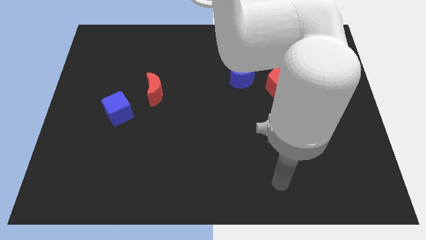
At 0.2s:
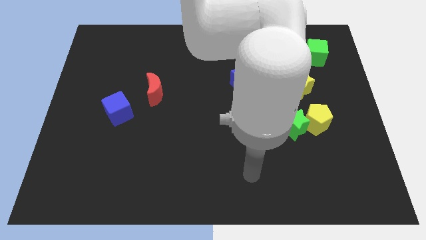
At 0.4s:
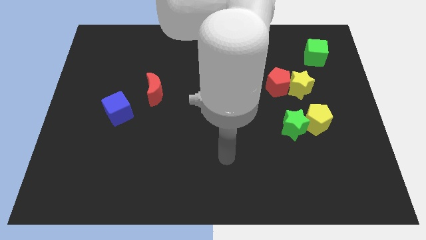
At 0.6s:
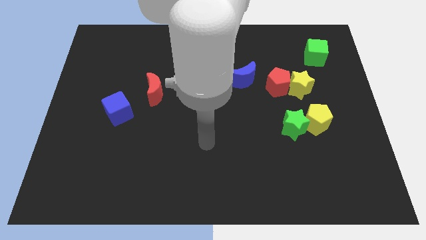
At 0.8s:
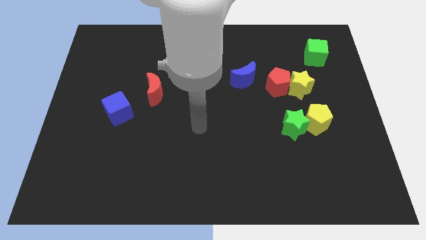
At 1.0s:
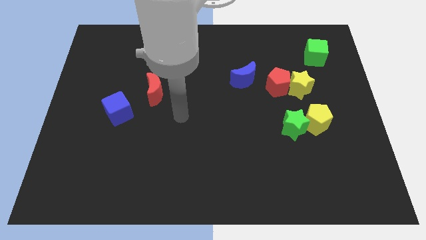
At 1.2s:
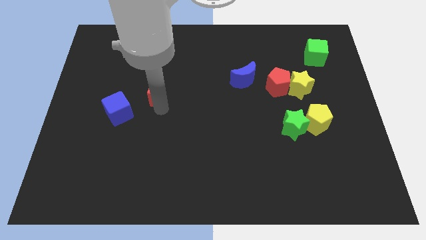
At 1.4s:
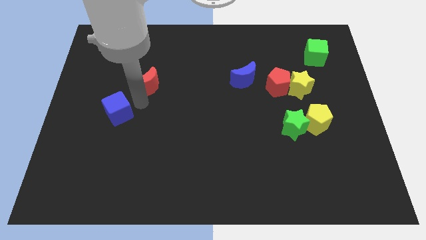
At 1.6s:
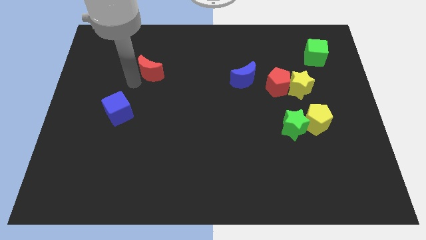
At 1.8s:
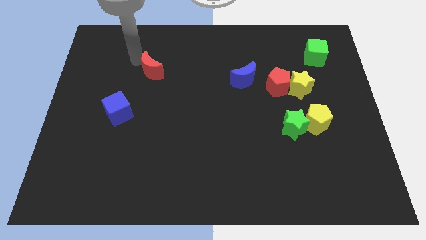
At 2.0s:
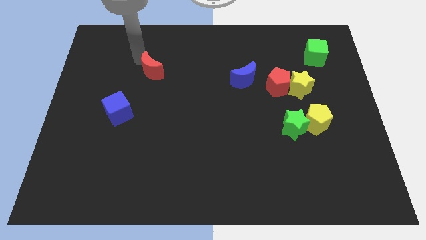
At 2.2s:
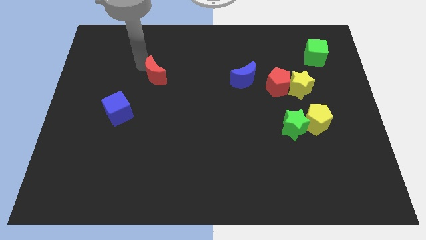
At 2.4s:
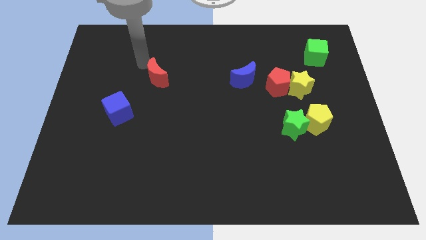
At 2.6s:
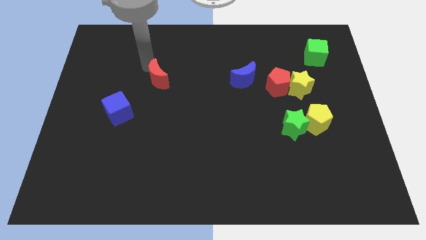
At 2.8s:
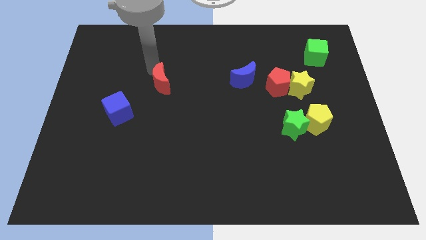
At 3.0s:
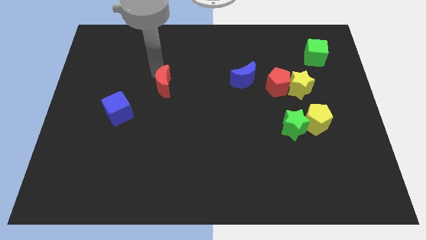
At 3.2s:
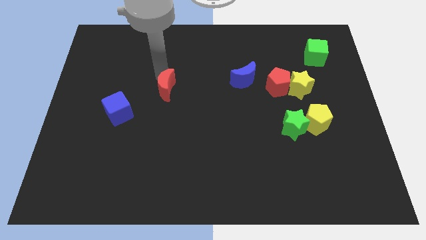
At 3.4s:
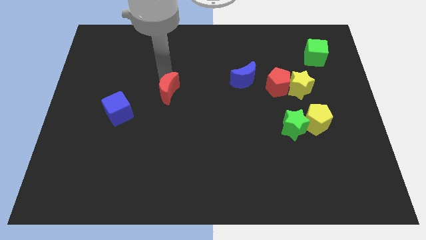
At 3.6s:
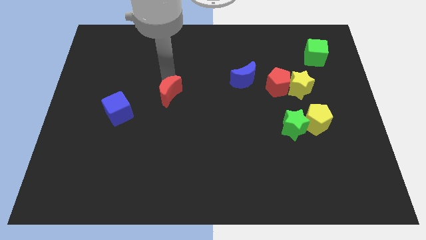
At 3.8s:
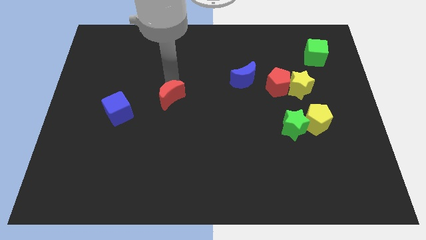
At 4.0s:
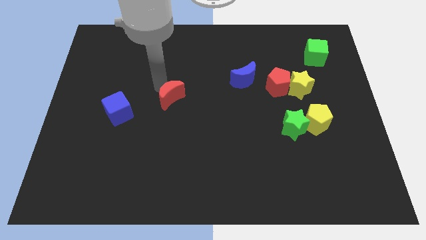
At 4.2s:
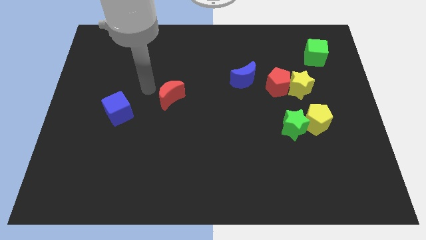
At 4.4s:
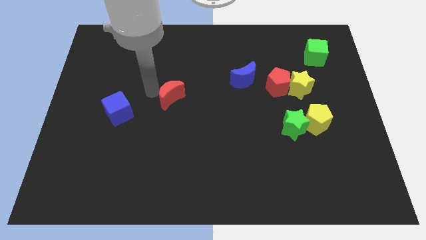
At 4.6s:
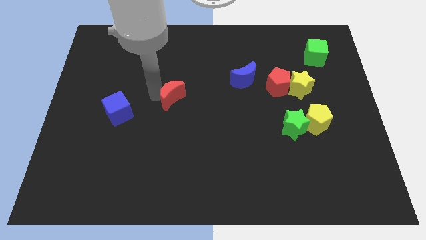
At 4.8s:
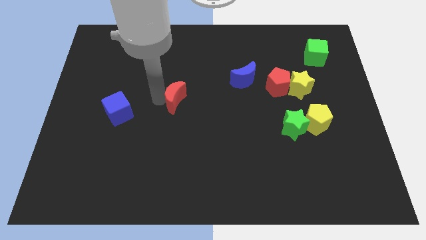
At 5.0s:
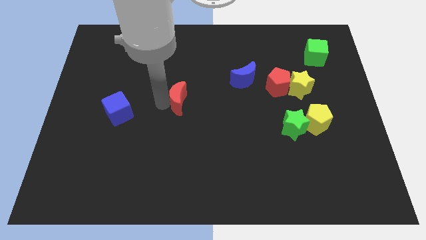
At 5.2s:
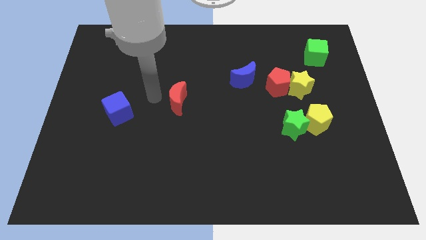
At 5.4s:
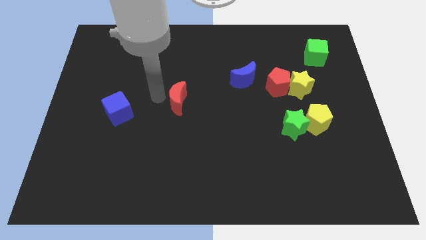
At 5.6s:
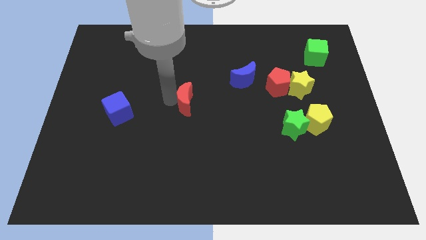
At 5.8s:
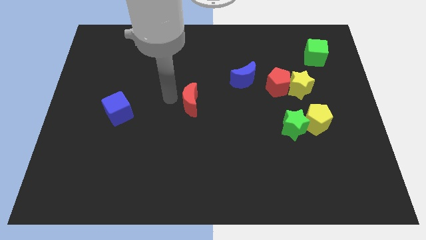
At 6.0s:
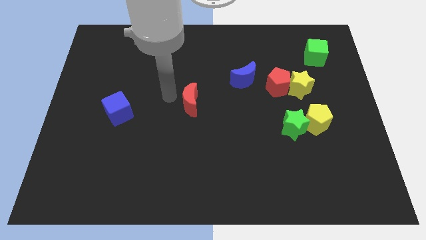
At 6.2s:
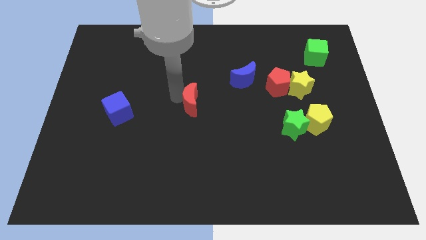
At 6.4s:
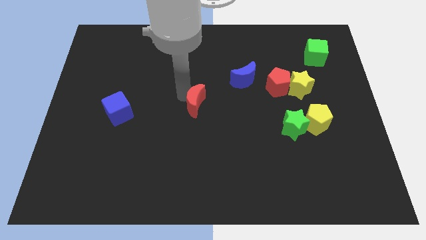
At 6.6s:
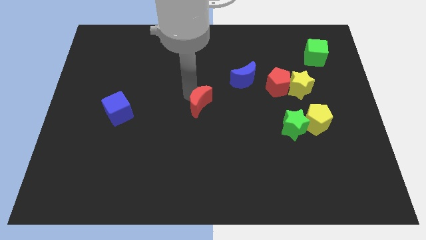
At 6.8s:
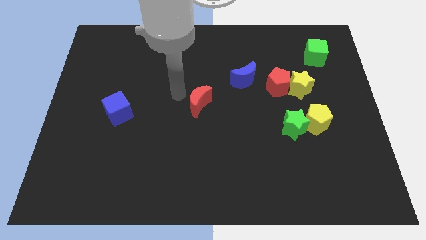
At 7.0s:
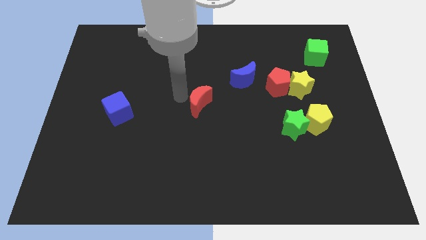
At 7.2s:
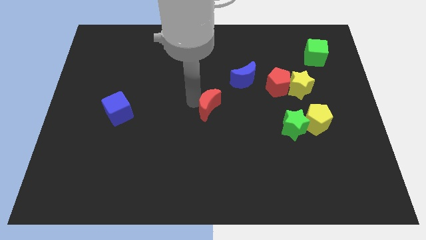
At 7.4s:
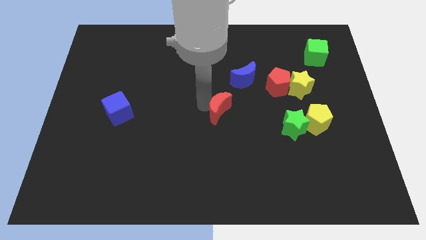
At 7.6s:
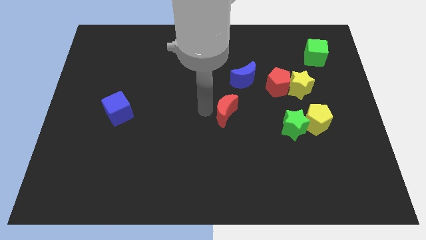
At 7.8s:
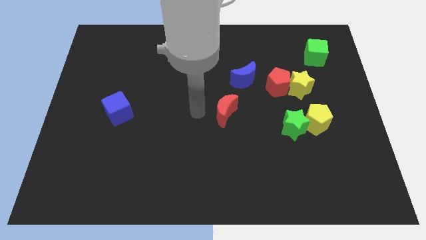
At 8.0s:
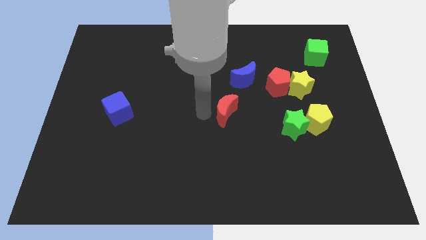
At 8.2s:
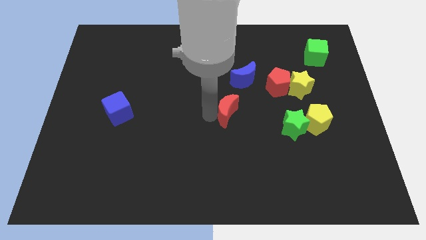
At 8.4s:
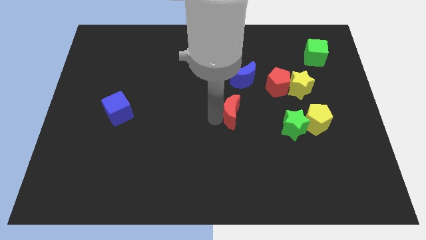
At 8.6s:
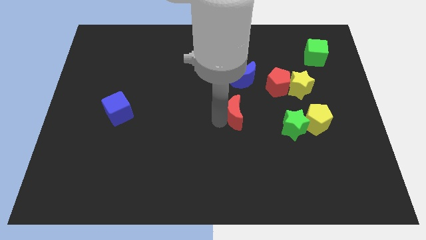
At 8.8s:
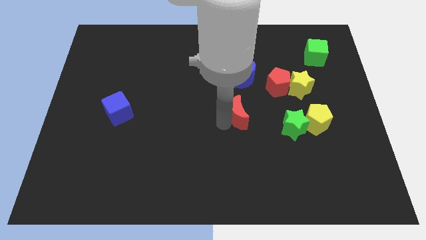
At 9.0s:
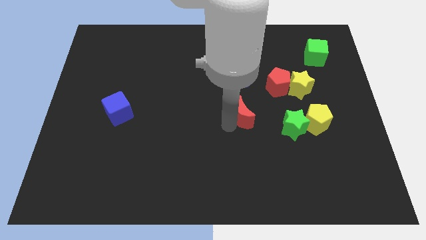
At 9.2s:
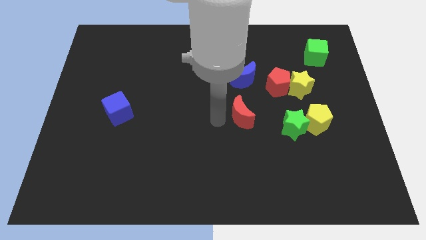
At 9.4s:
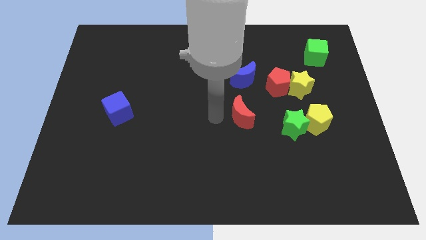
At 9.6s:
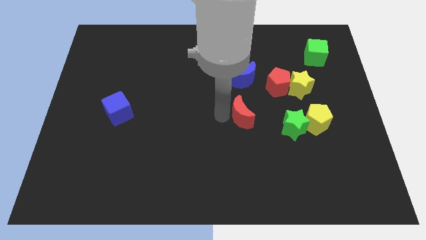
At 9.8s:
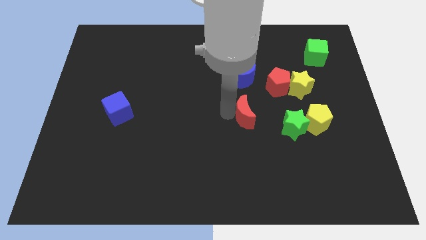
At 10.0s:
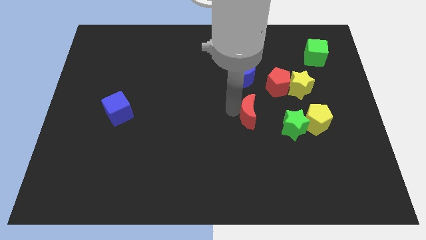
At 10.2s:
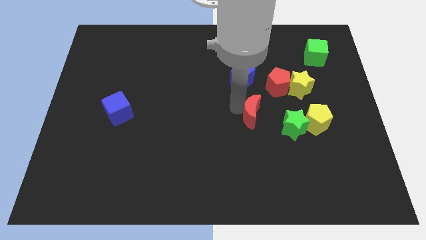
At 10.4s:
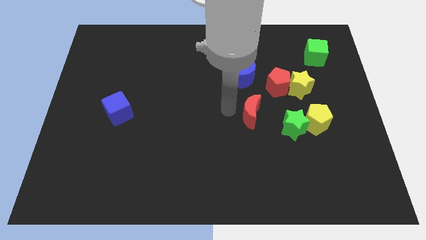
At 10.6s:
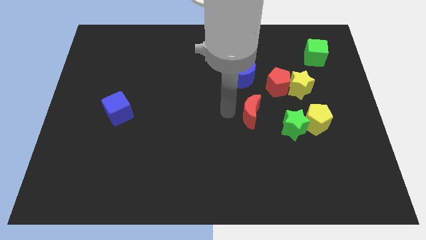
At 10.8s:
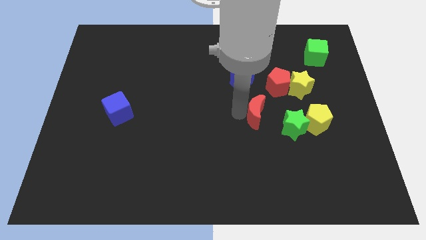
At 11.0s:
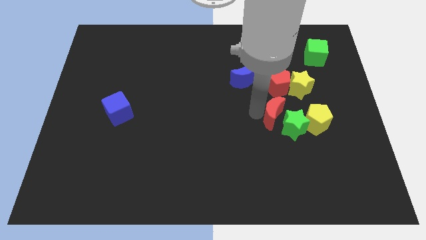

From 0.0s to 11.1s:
put the red moon next to the green star

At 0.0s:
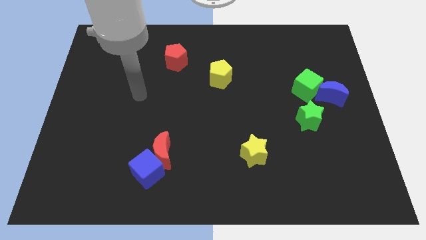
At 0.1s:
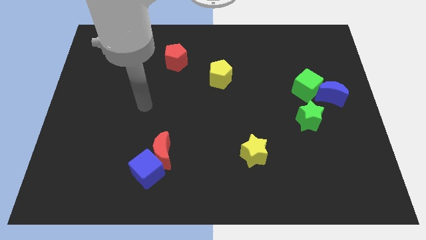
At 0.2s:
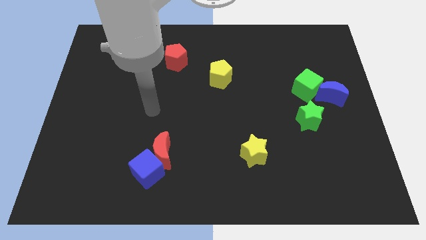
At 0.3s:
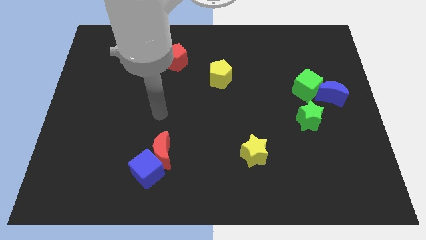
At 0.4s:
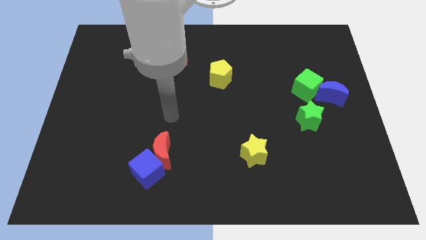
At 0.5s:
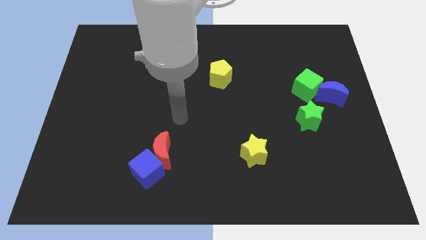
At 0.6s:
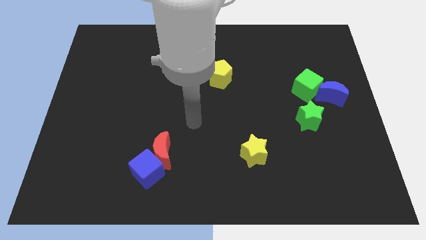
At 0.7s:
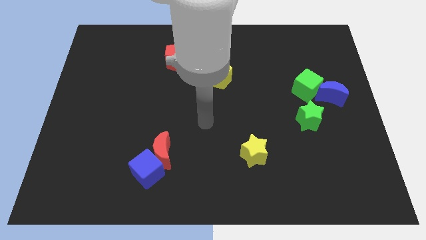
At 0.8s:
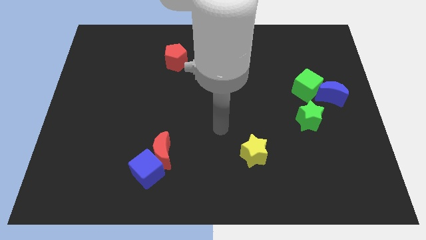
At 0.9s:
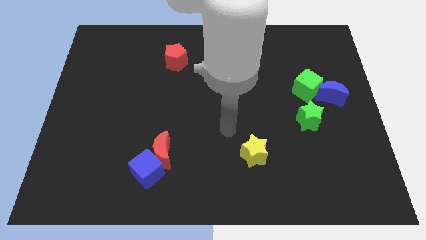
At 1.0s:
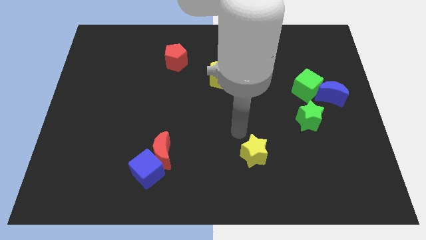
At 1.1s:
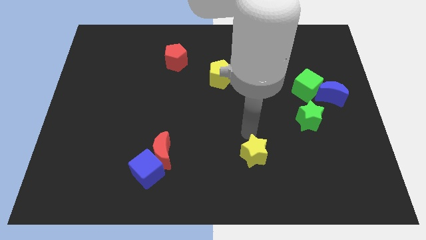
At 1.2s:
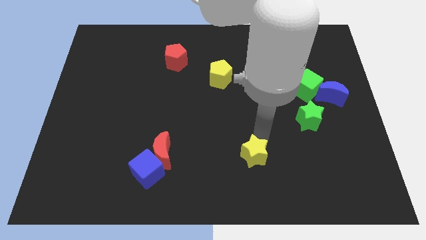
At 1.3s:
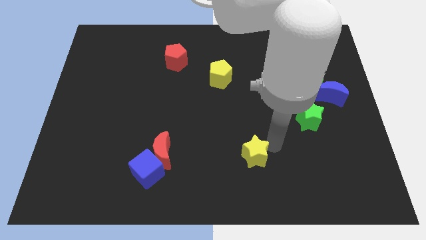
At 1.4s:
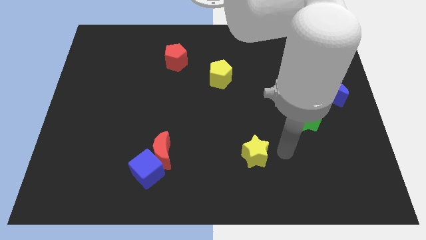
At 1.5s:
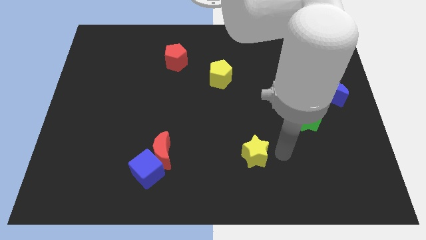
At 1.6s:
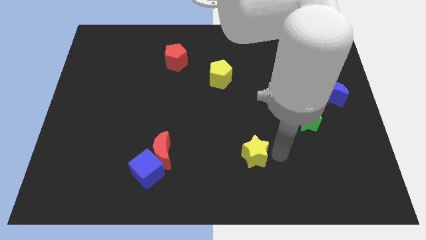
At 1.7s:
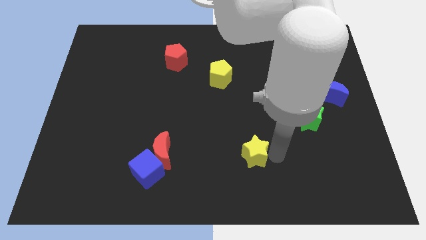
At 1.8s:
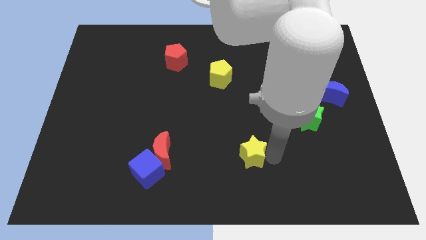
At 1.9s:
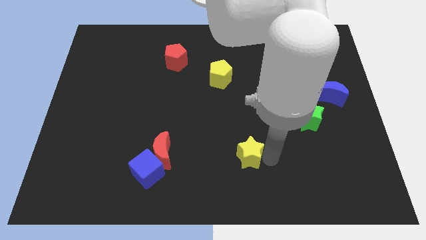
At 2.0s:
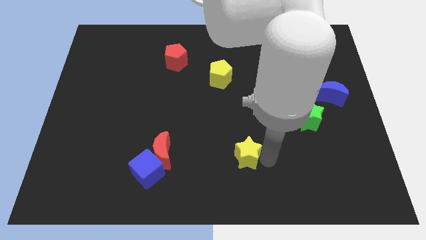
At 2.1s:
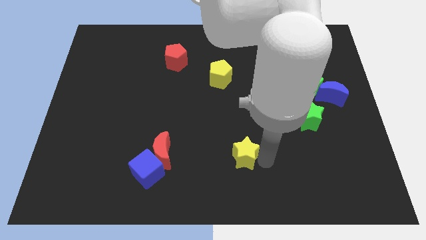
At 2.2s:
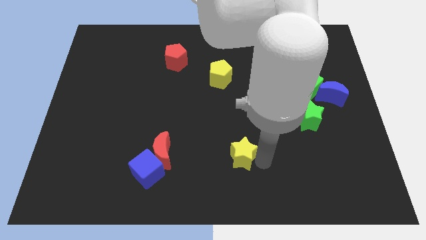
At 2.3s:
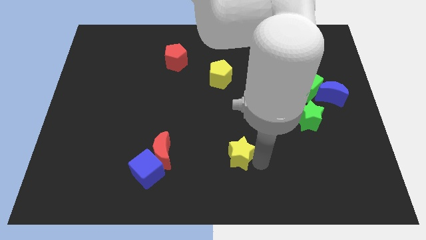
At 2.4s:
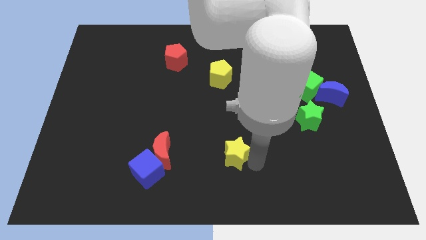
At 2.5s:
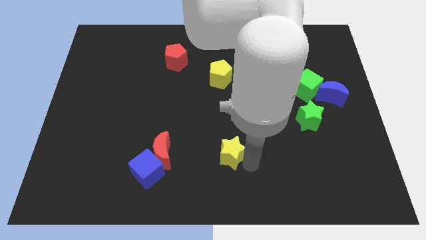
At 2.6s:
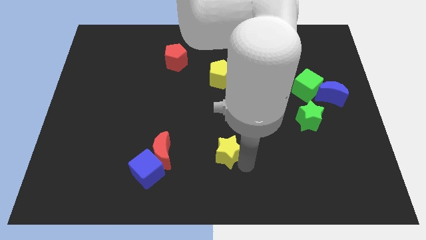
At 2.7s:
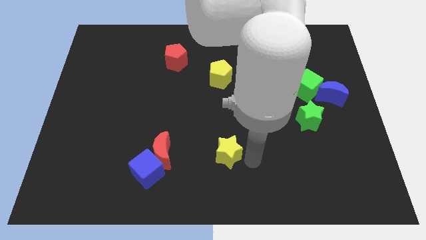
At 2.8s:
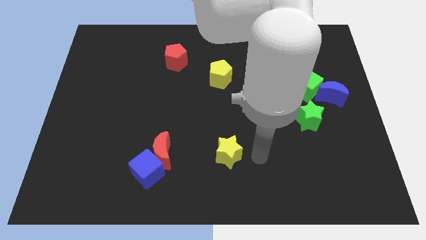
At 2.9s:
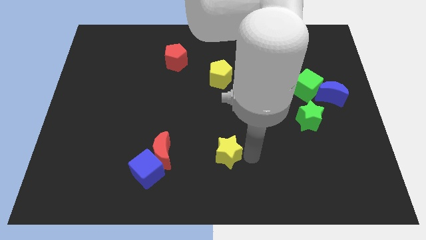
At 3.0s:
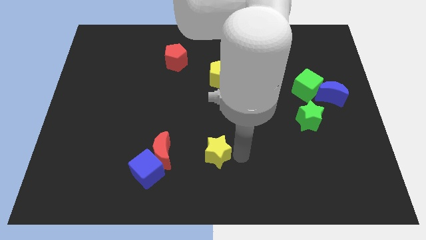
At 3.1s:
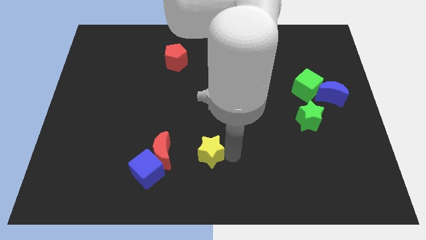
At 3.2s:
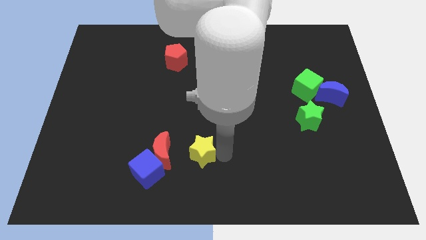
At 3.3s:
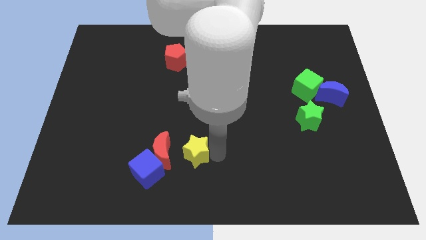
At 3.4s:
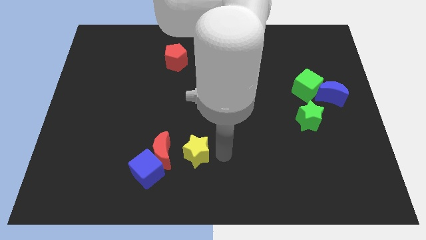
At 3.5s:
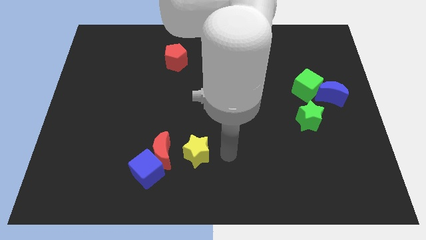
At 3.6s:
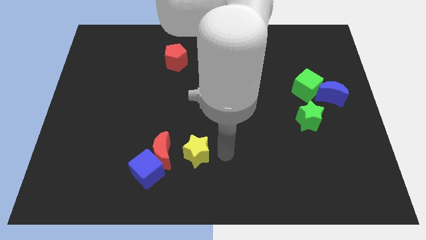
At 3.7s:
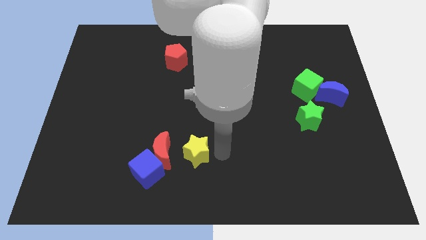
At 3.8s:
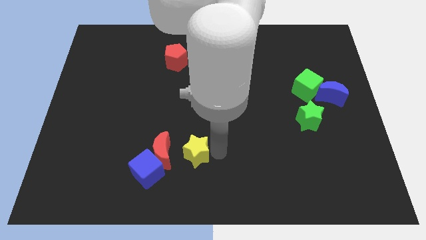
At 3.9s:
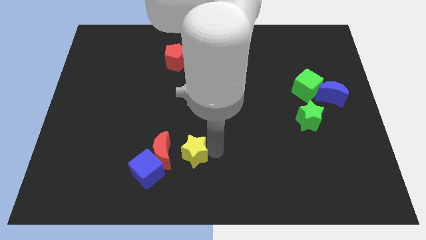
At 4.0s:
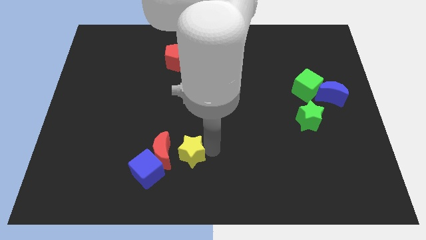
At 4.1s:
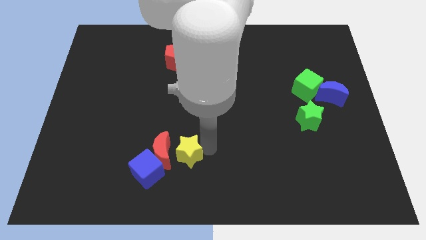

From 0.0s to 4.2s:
push the yellow star to the red moon
